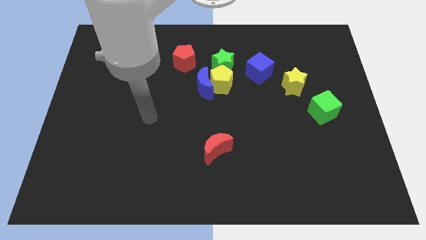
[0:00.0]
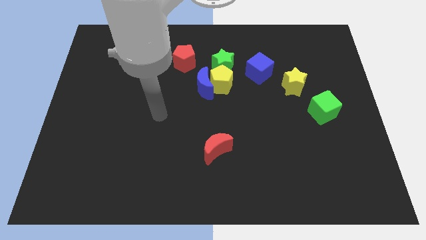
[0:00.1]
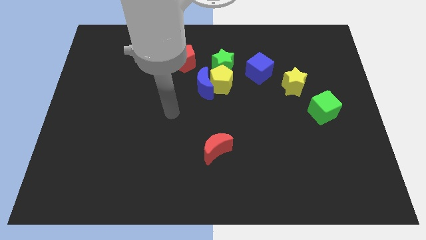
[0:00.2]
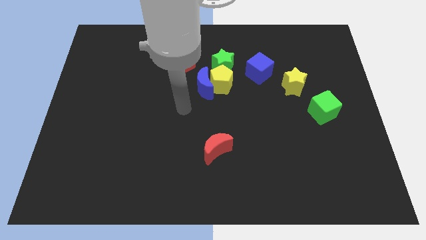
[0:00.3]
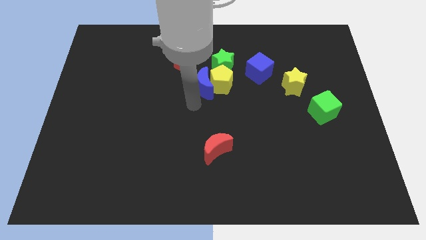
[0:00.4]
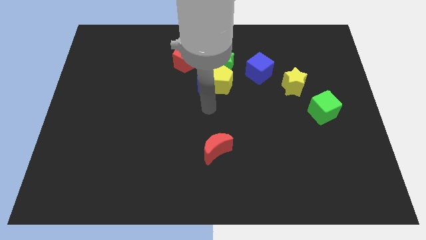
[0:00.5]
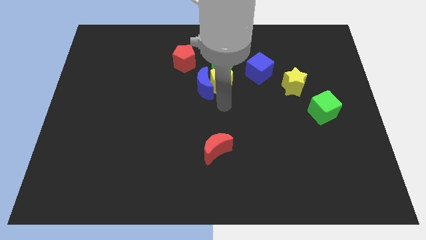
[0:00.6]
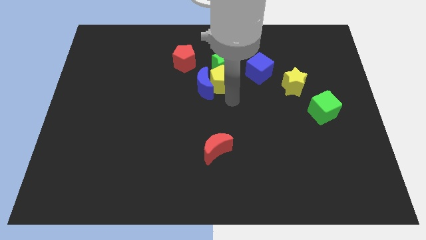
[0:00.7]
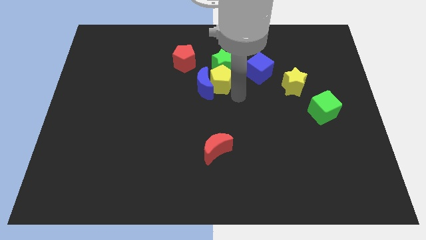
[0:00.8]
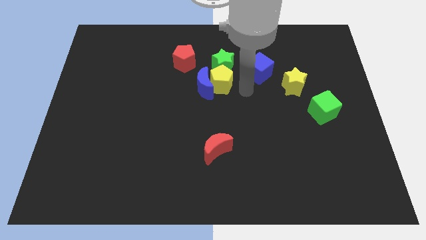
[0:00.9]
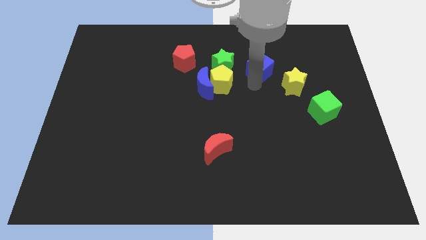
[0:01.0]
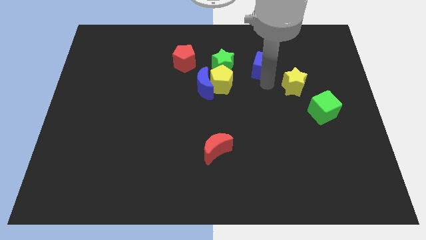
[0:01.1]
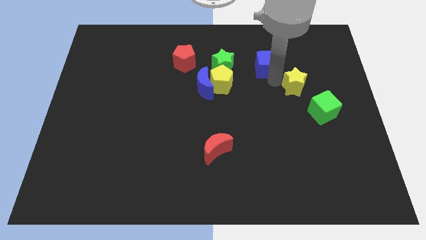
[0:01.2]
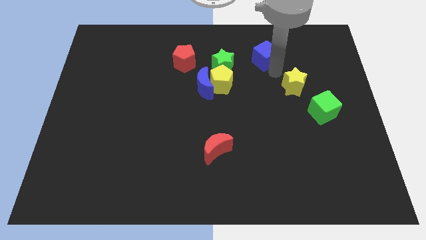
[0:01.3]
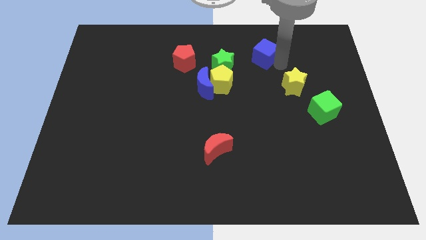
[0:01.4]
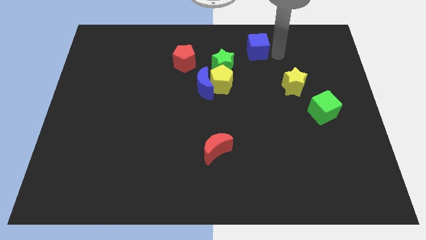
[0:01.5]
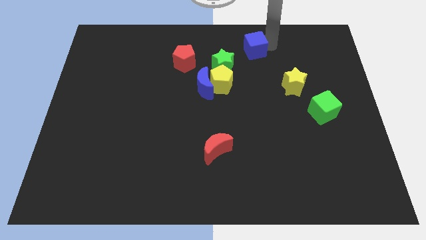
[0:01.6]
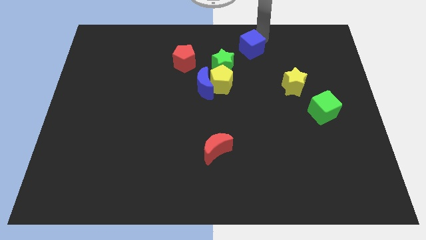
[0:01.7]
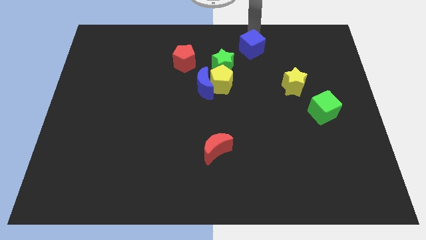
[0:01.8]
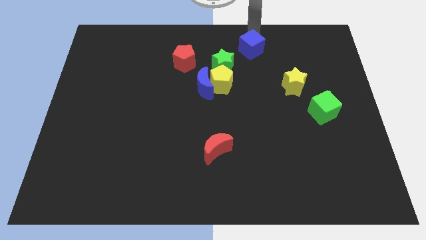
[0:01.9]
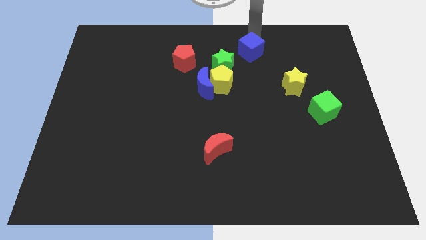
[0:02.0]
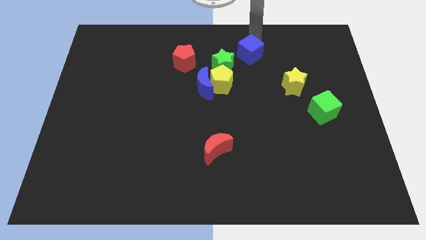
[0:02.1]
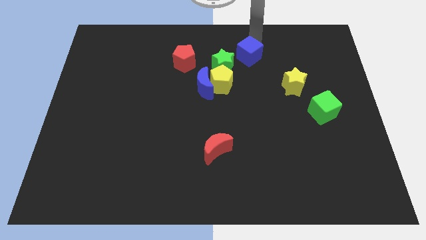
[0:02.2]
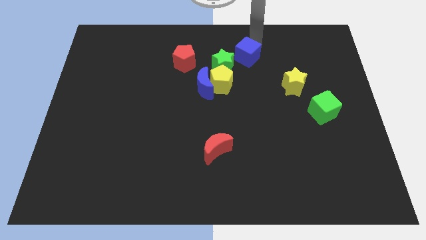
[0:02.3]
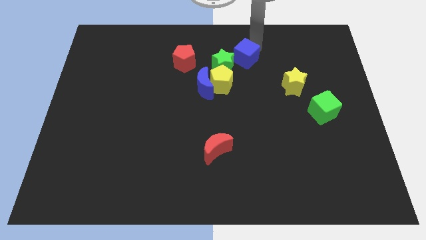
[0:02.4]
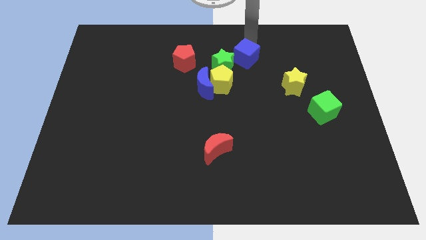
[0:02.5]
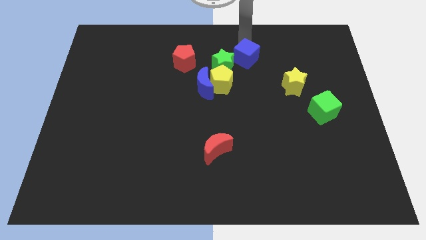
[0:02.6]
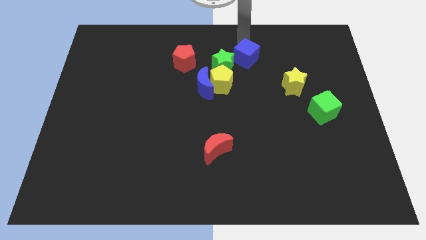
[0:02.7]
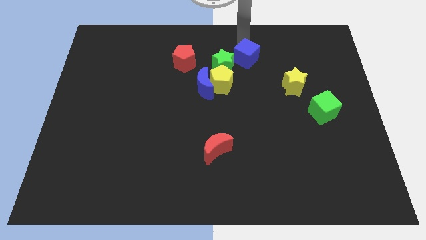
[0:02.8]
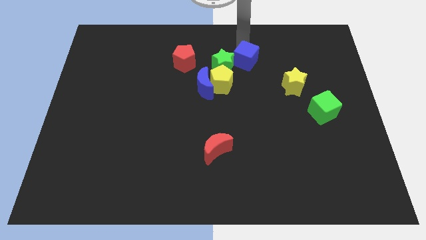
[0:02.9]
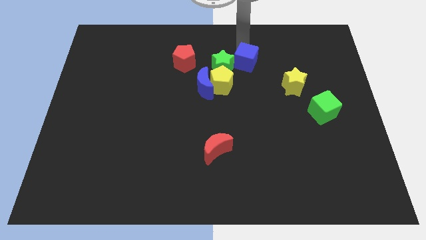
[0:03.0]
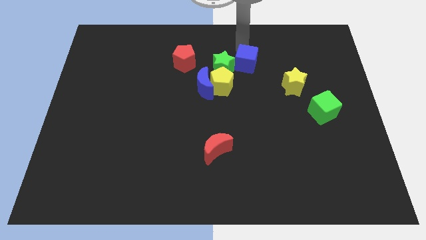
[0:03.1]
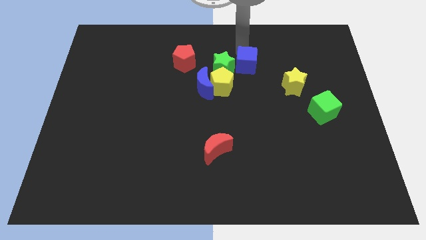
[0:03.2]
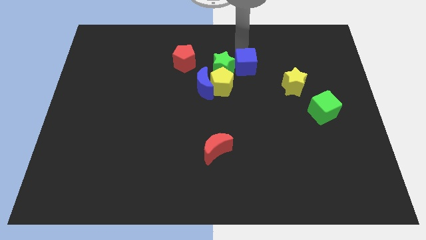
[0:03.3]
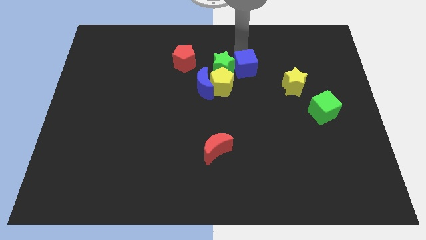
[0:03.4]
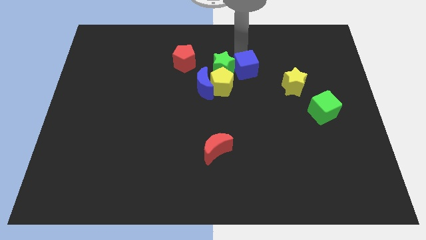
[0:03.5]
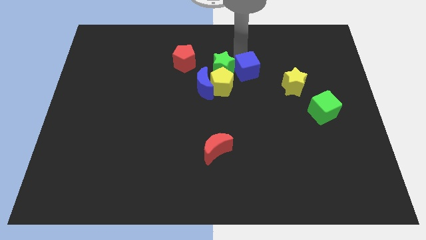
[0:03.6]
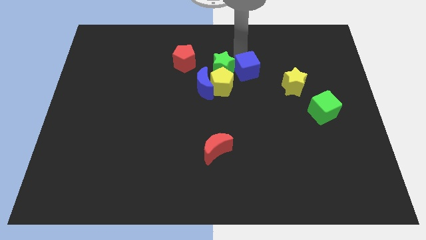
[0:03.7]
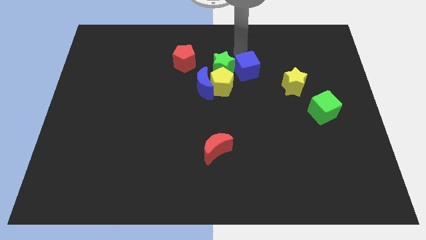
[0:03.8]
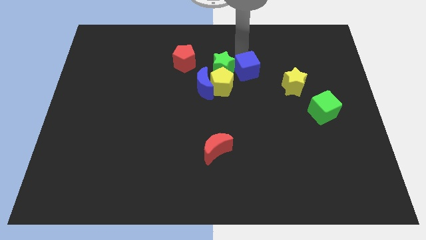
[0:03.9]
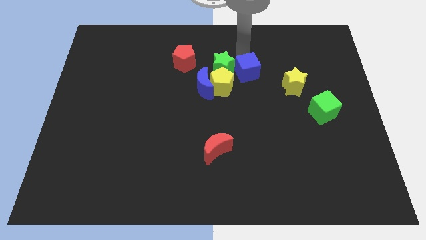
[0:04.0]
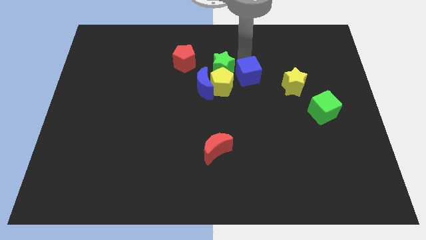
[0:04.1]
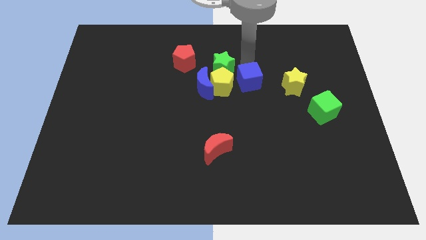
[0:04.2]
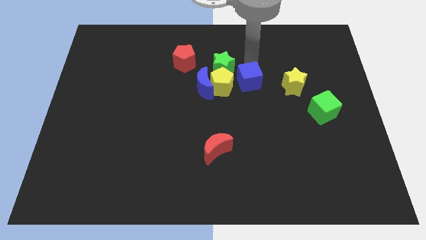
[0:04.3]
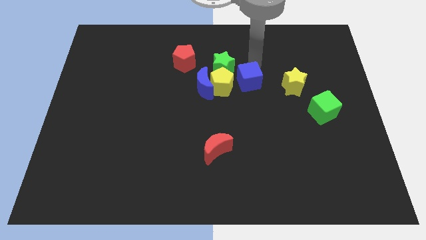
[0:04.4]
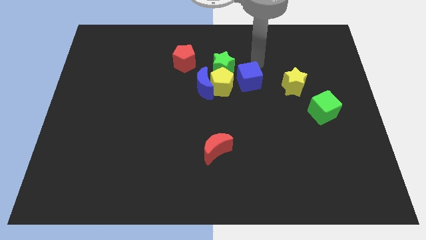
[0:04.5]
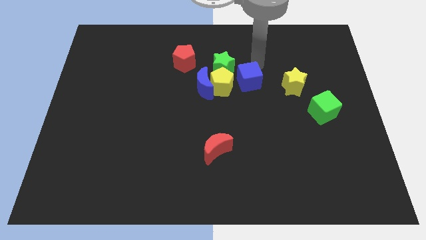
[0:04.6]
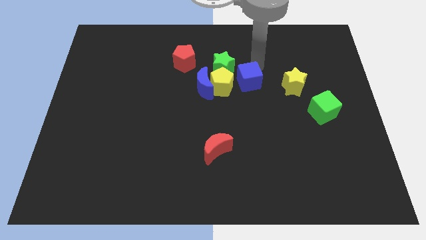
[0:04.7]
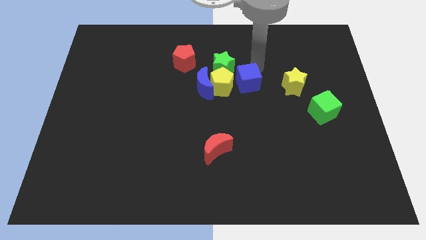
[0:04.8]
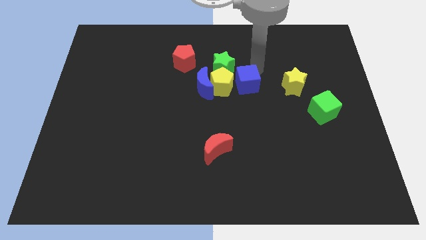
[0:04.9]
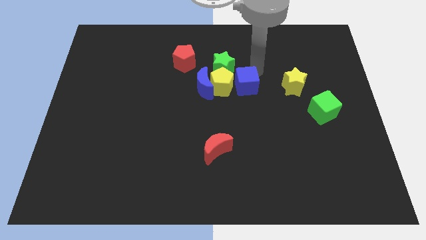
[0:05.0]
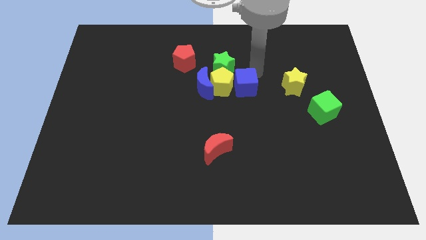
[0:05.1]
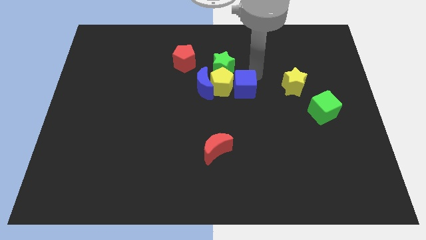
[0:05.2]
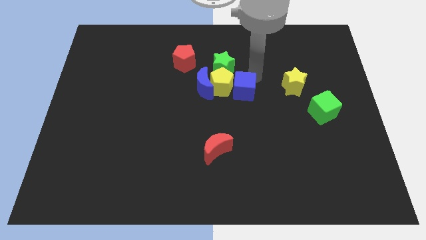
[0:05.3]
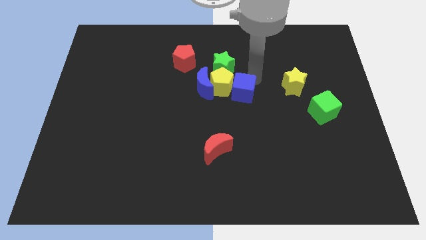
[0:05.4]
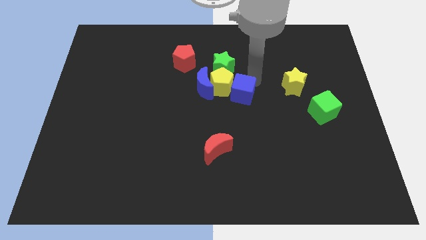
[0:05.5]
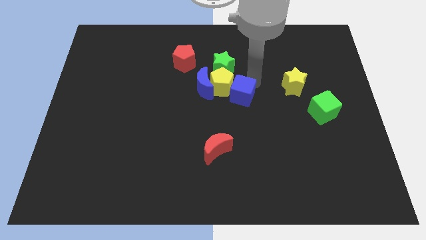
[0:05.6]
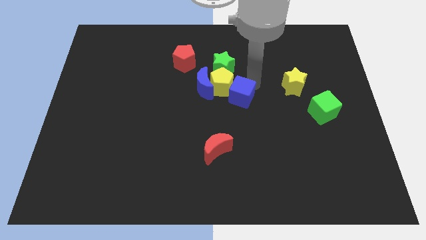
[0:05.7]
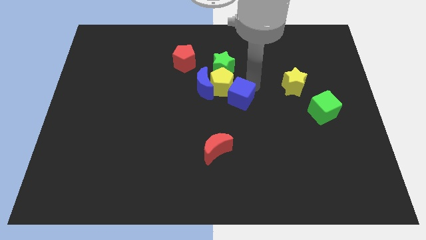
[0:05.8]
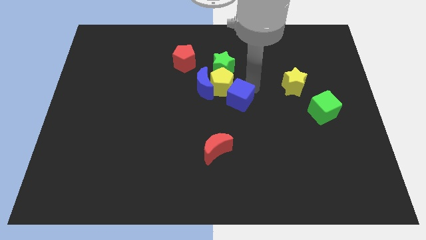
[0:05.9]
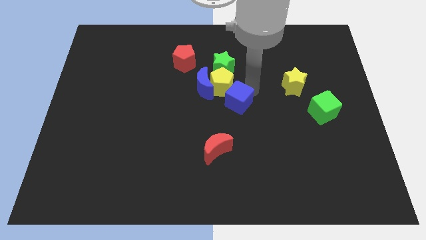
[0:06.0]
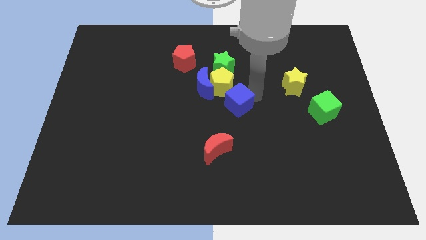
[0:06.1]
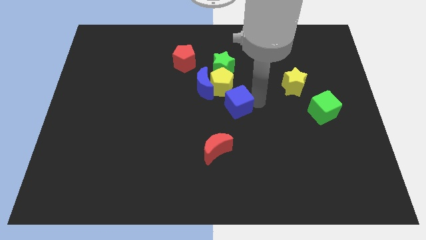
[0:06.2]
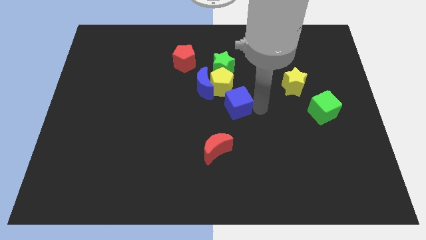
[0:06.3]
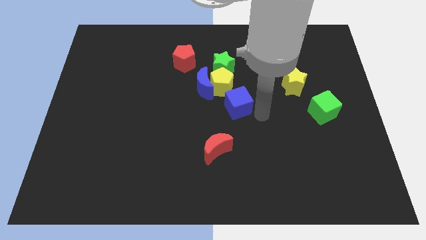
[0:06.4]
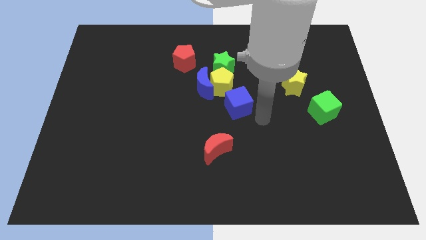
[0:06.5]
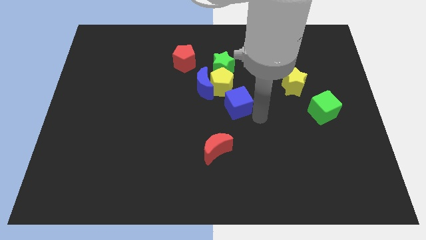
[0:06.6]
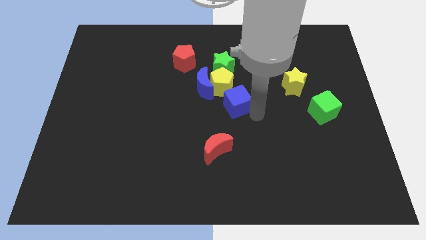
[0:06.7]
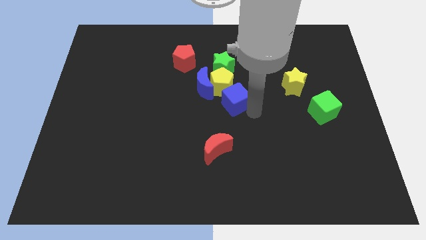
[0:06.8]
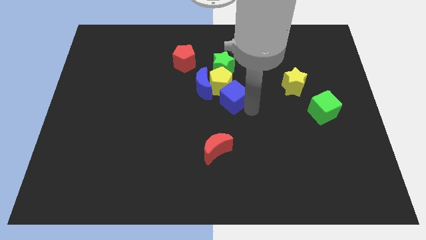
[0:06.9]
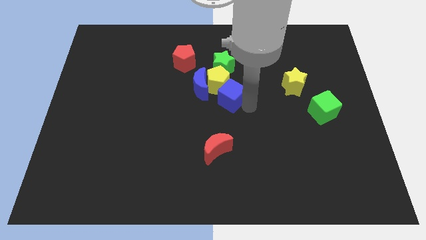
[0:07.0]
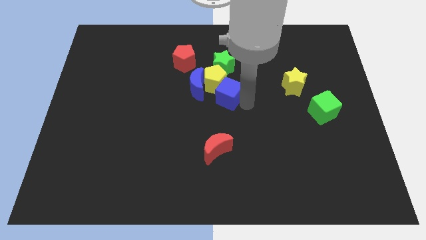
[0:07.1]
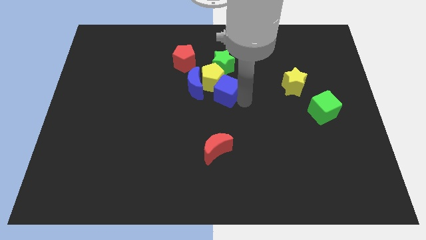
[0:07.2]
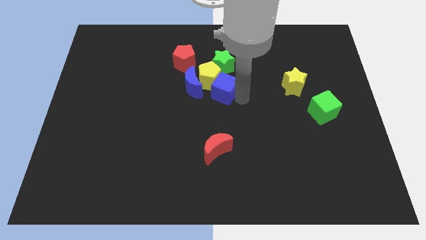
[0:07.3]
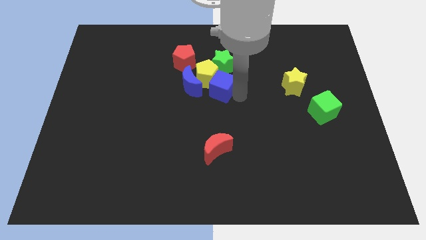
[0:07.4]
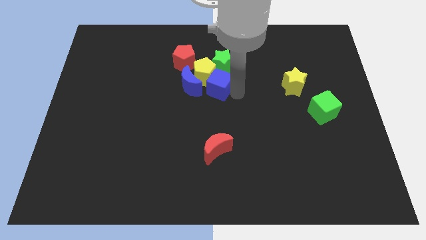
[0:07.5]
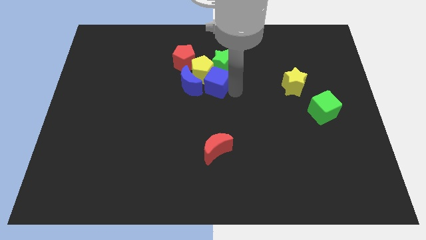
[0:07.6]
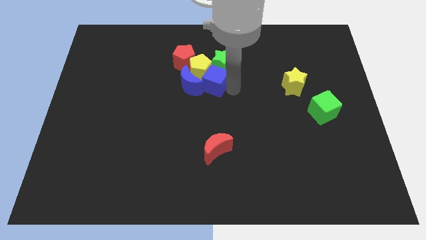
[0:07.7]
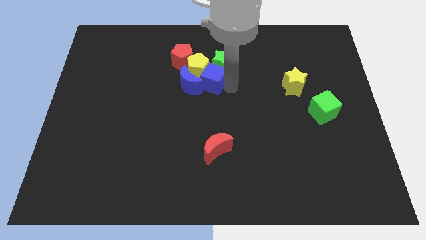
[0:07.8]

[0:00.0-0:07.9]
push the blue cube to the blue moon
